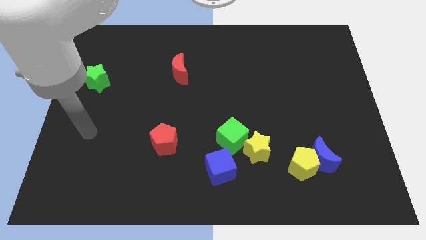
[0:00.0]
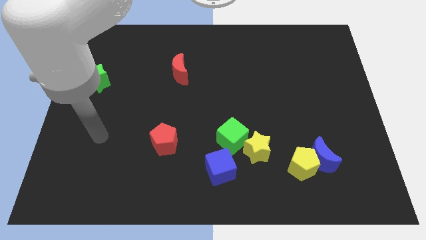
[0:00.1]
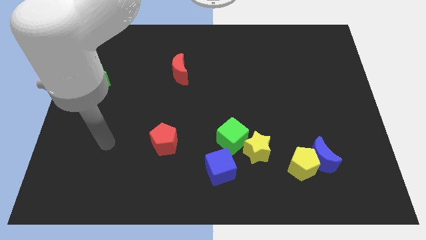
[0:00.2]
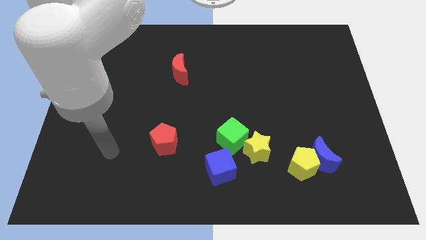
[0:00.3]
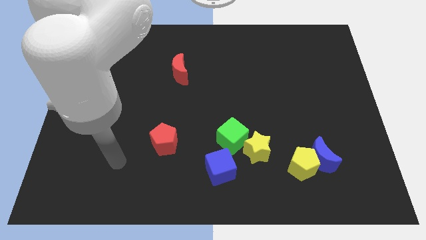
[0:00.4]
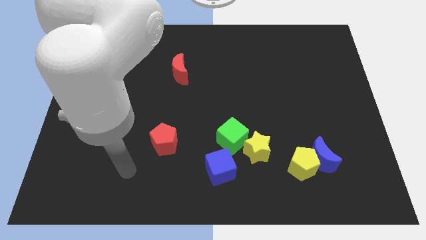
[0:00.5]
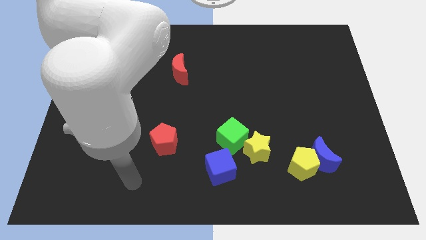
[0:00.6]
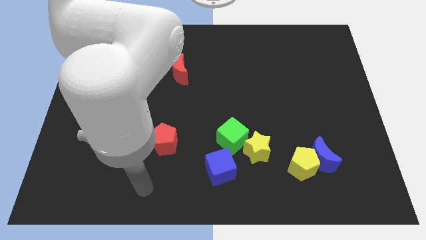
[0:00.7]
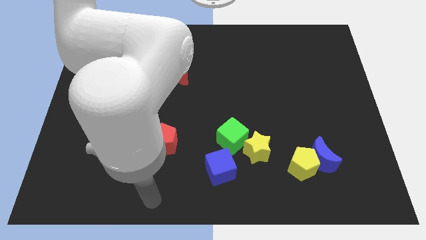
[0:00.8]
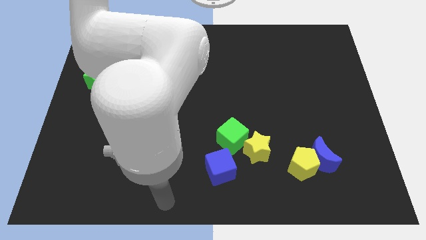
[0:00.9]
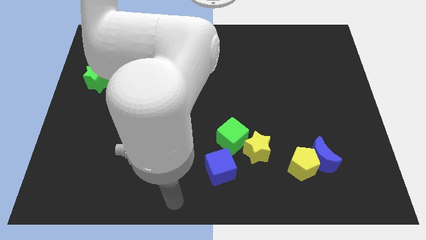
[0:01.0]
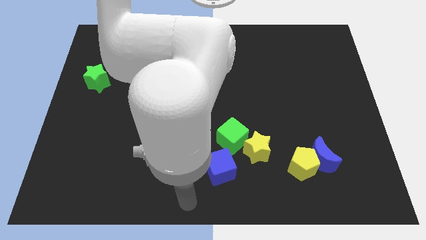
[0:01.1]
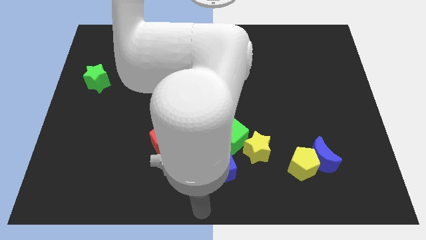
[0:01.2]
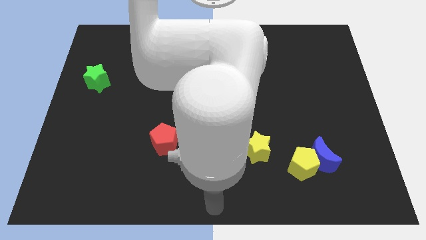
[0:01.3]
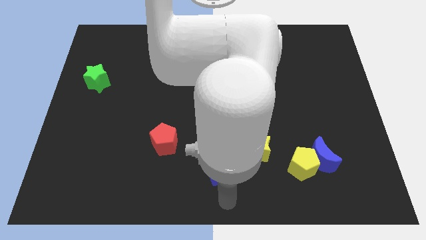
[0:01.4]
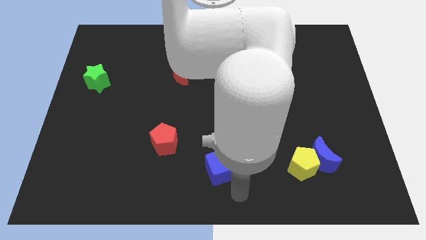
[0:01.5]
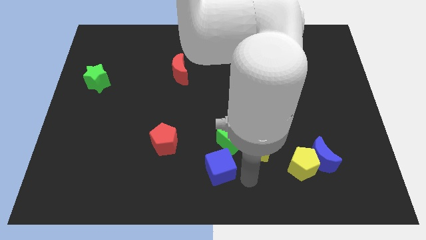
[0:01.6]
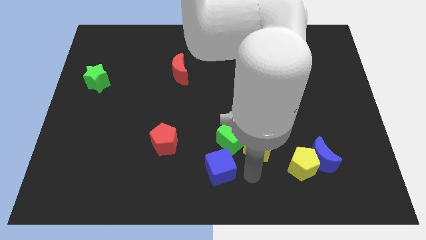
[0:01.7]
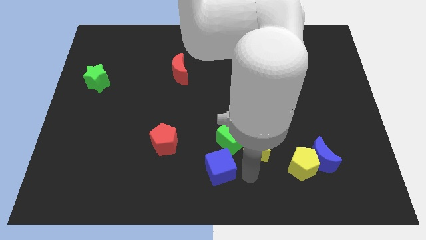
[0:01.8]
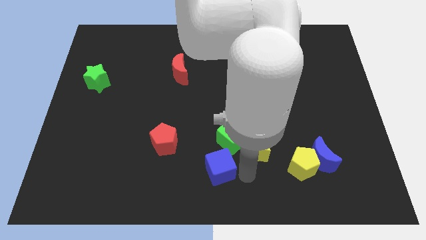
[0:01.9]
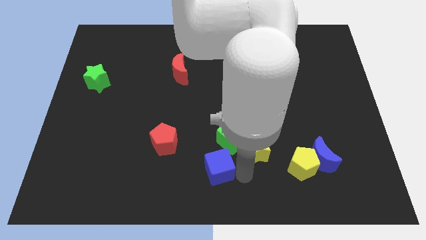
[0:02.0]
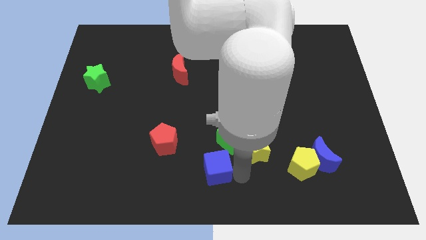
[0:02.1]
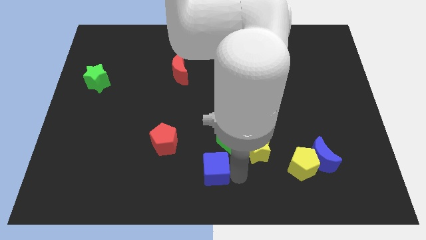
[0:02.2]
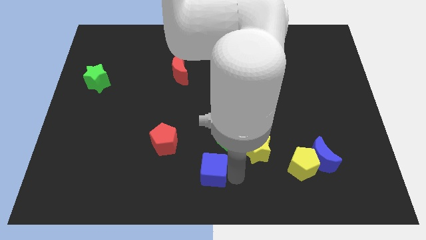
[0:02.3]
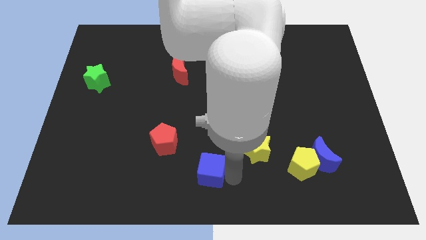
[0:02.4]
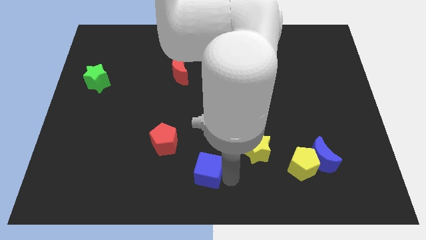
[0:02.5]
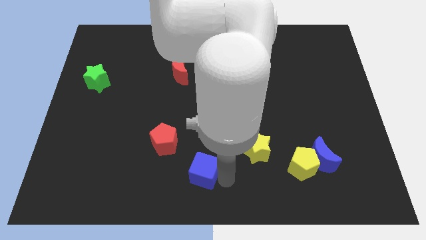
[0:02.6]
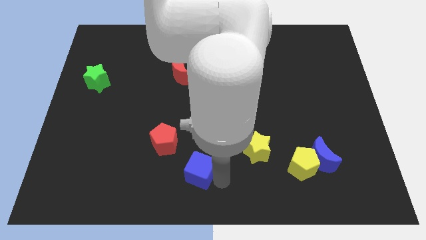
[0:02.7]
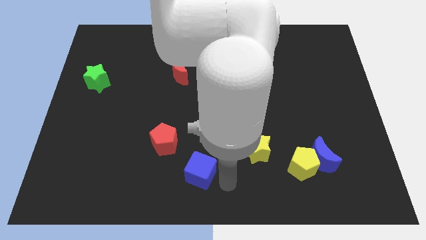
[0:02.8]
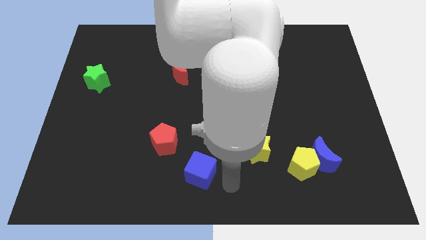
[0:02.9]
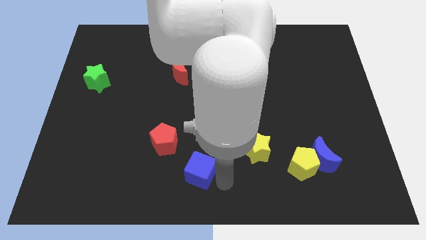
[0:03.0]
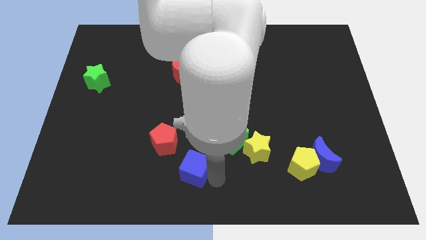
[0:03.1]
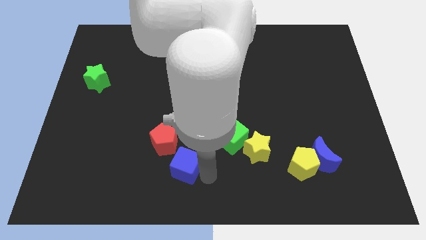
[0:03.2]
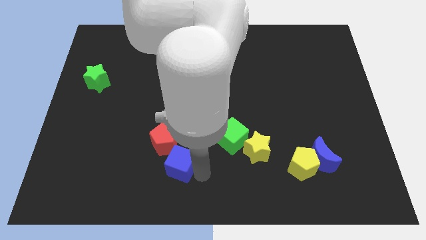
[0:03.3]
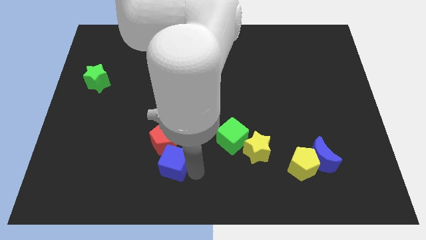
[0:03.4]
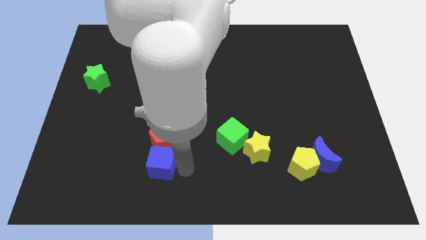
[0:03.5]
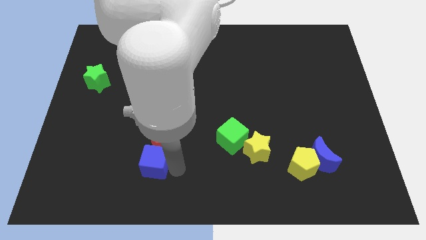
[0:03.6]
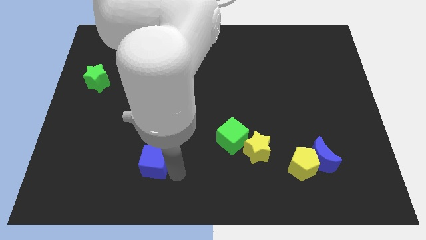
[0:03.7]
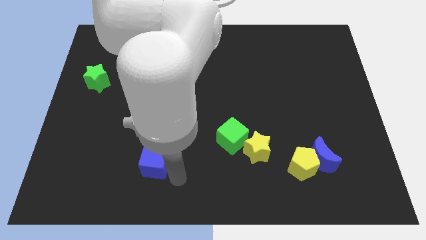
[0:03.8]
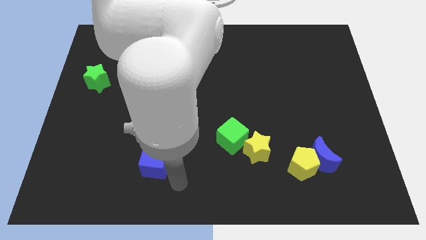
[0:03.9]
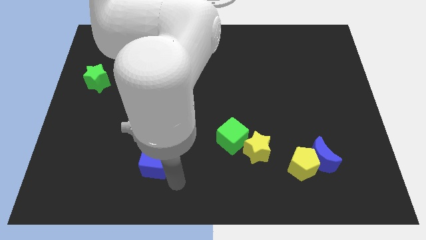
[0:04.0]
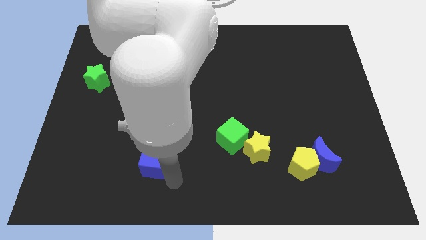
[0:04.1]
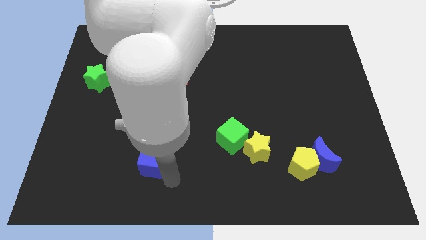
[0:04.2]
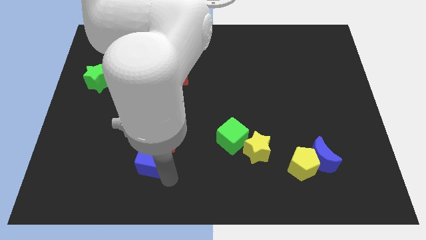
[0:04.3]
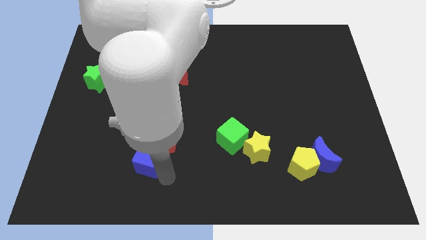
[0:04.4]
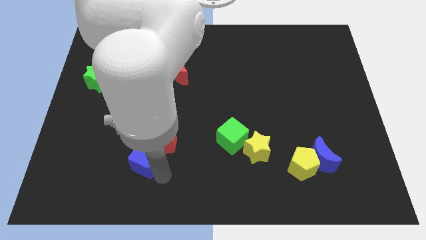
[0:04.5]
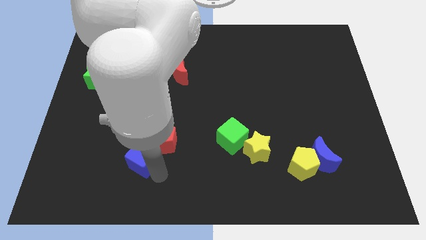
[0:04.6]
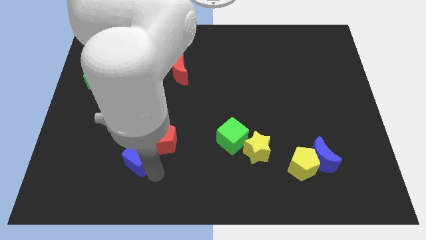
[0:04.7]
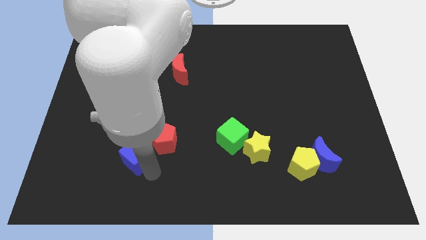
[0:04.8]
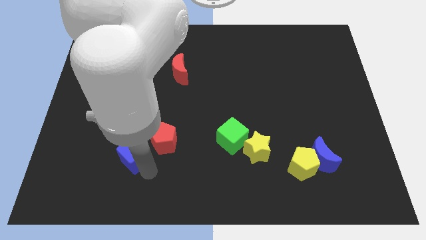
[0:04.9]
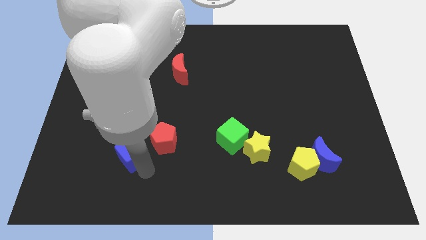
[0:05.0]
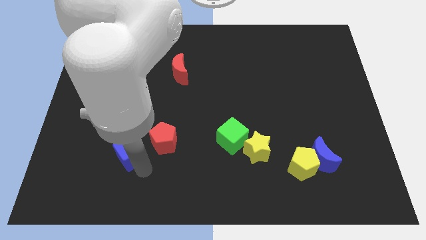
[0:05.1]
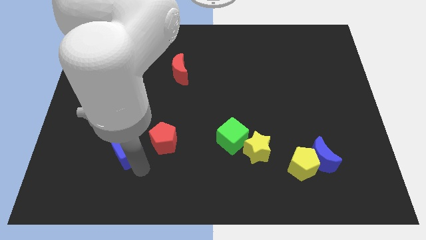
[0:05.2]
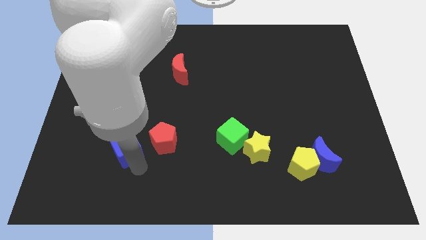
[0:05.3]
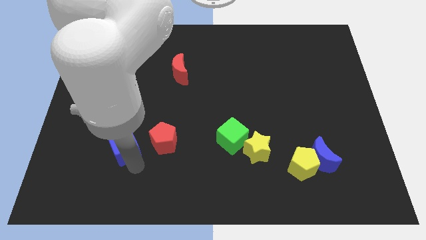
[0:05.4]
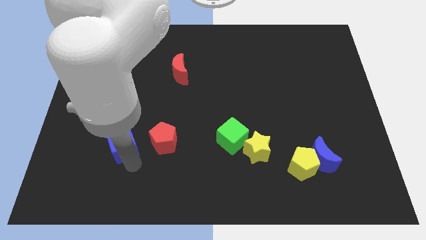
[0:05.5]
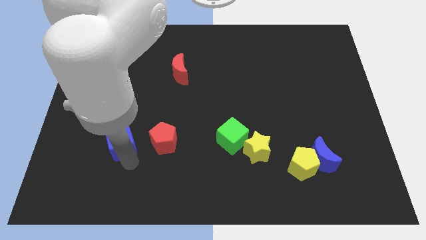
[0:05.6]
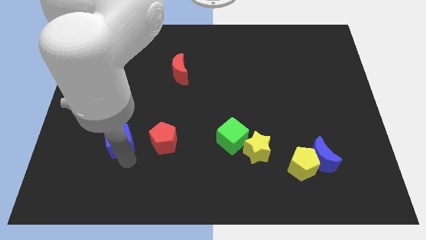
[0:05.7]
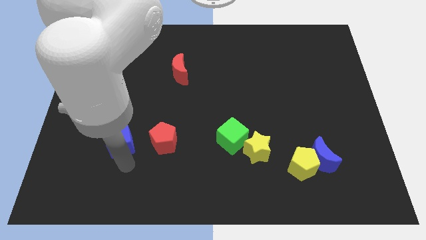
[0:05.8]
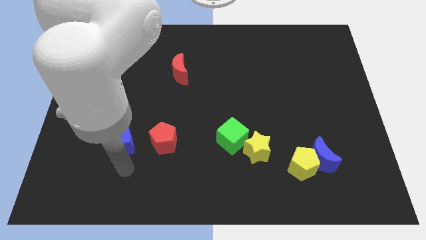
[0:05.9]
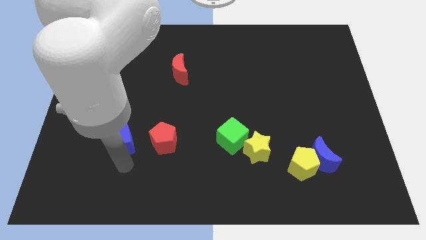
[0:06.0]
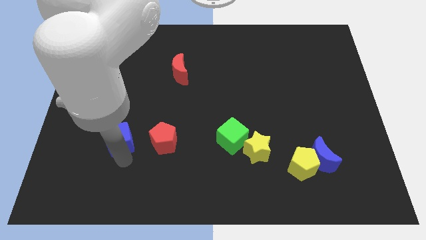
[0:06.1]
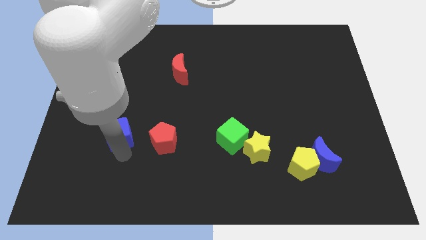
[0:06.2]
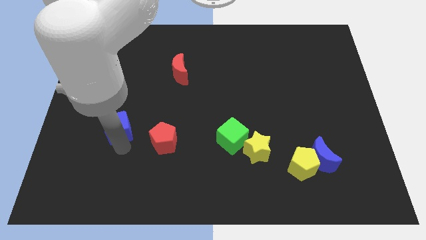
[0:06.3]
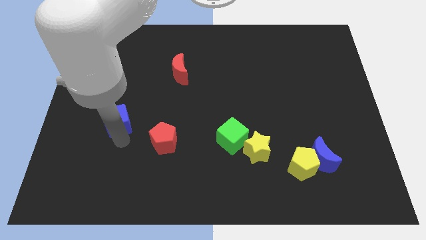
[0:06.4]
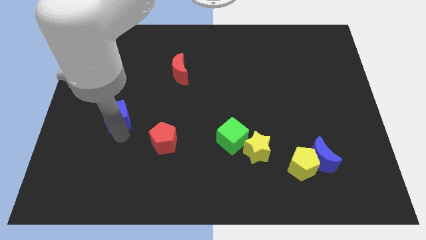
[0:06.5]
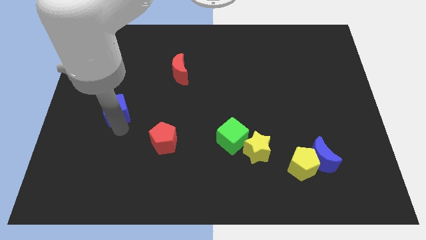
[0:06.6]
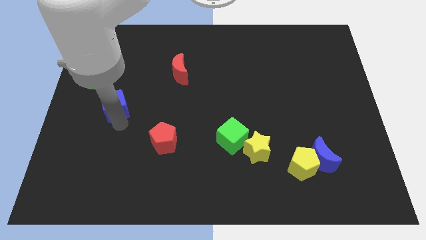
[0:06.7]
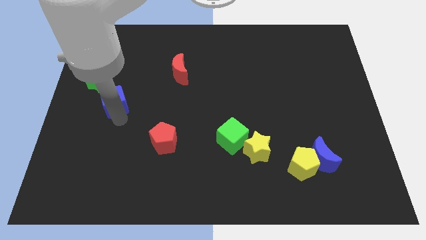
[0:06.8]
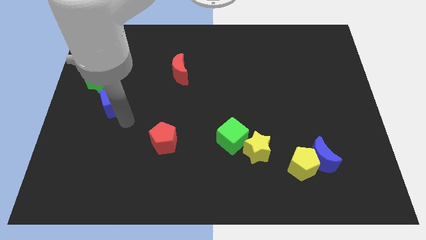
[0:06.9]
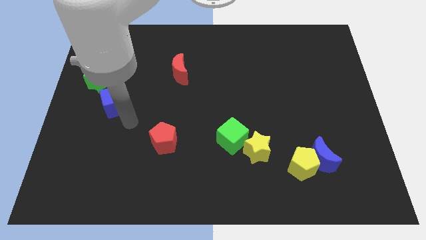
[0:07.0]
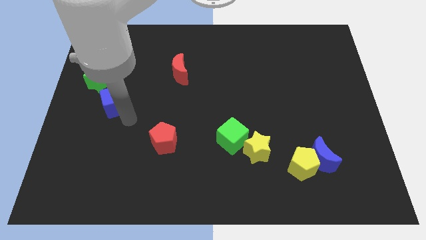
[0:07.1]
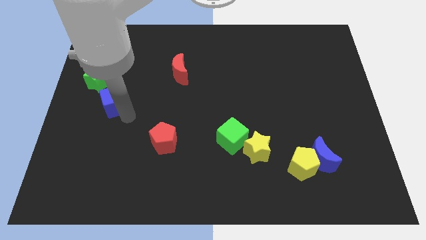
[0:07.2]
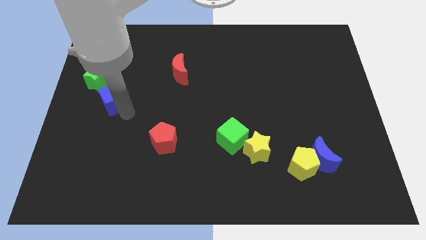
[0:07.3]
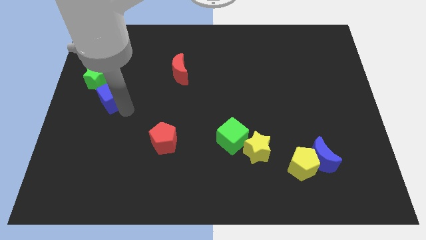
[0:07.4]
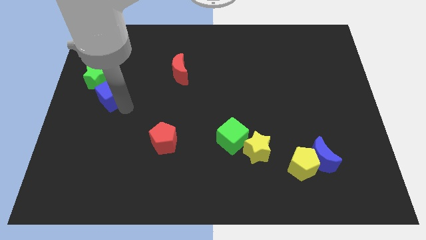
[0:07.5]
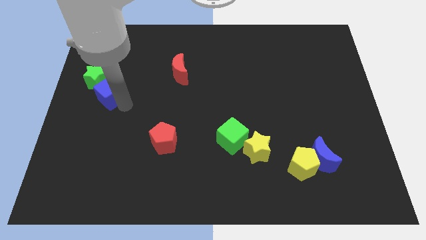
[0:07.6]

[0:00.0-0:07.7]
push the blue cube towards the green star
